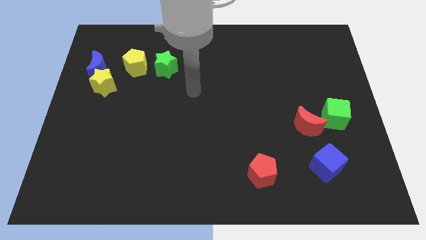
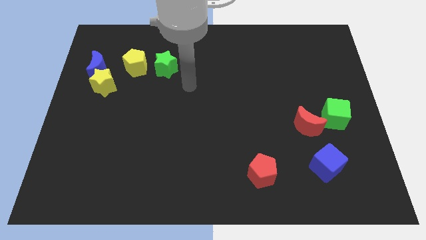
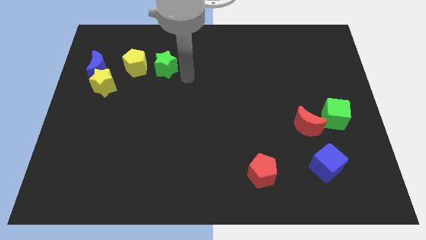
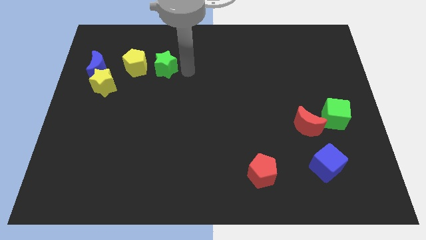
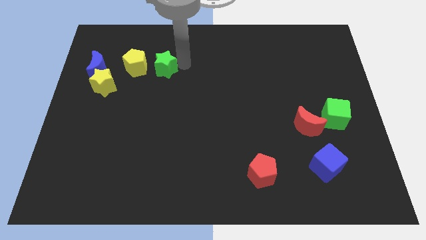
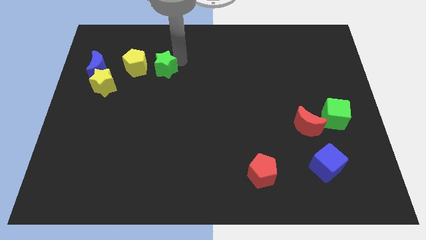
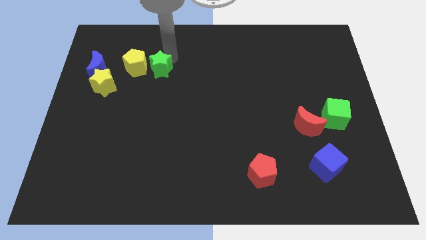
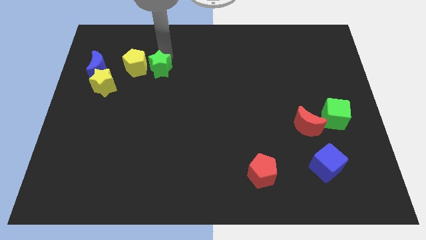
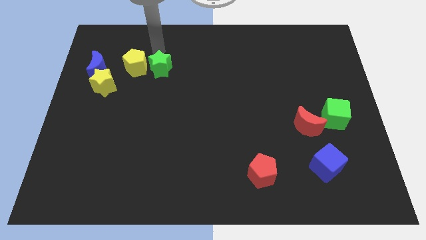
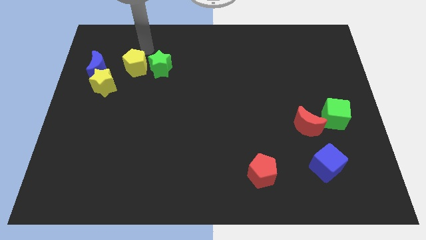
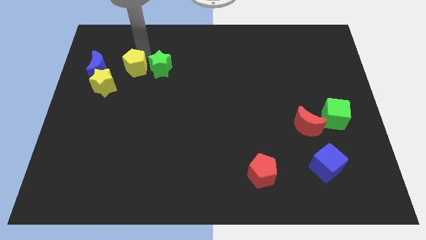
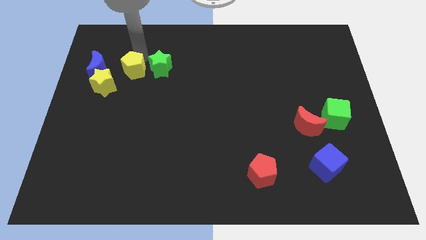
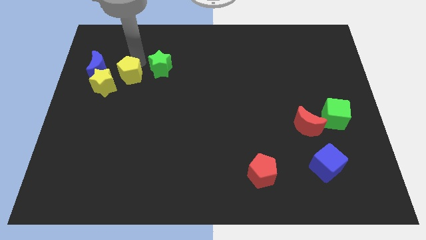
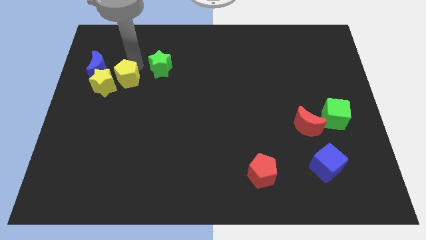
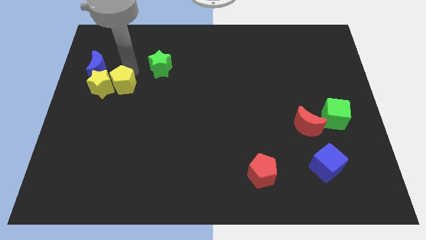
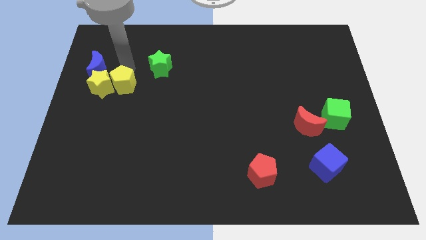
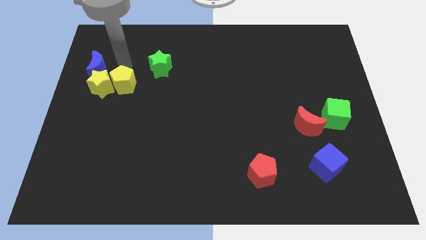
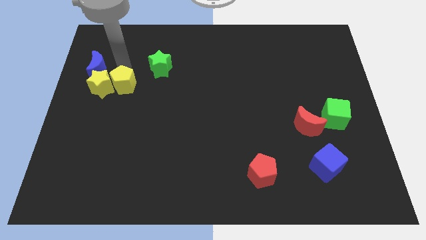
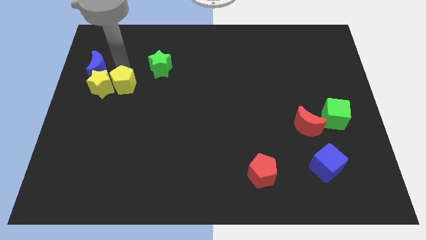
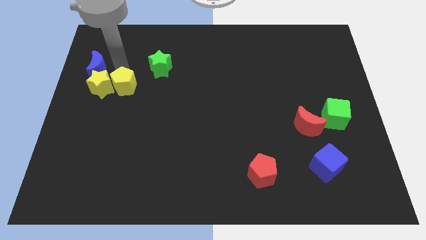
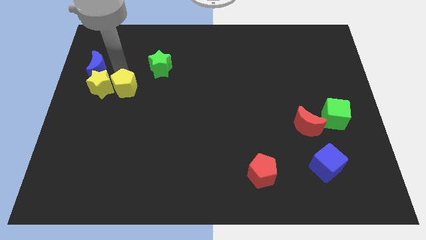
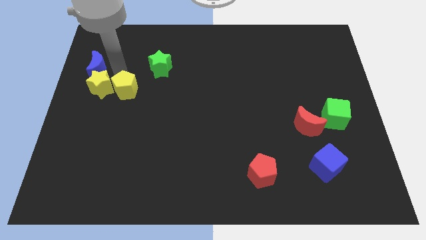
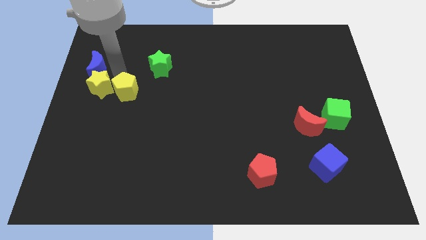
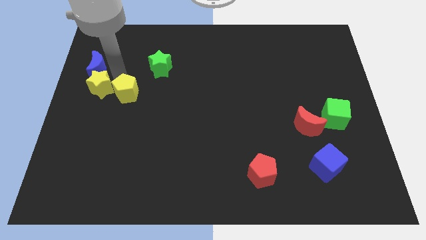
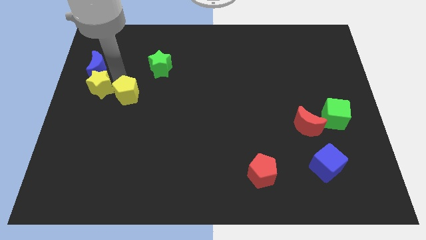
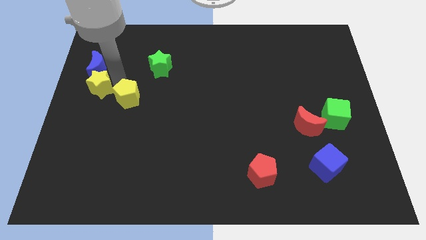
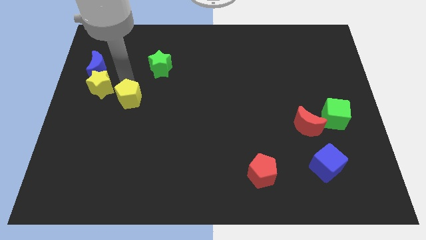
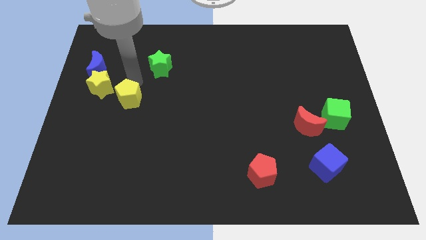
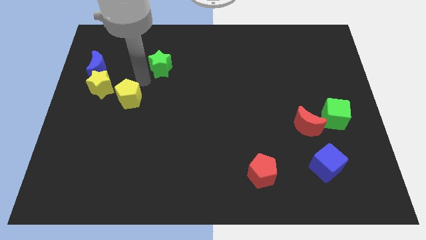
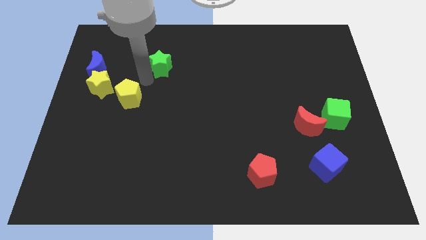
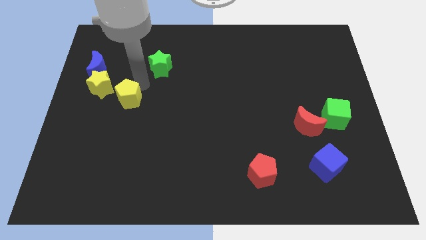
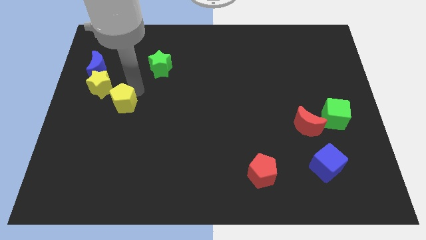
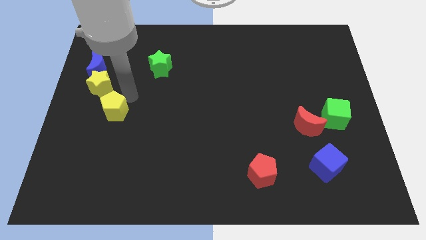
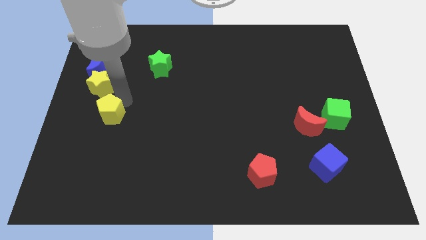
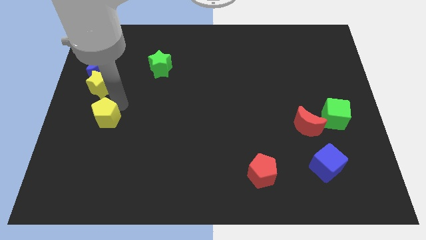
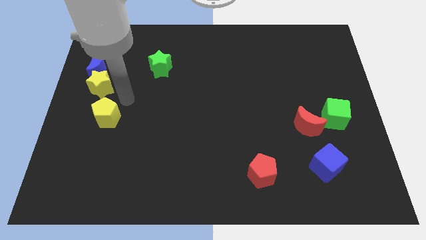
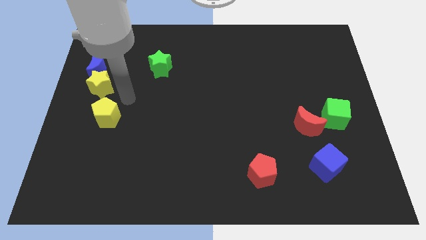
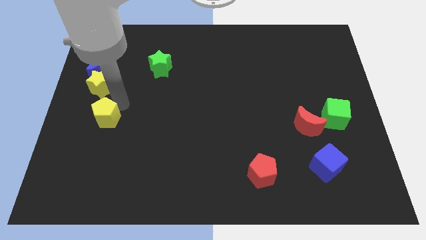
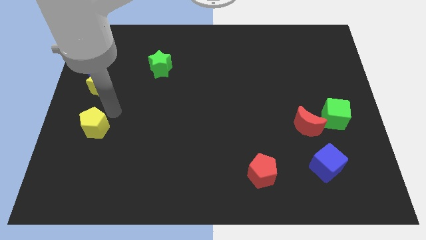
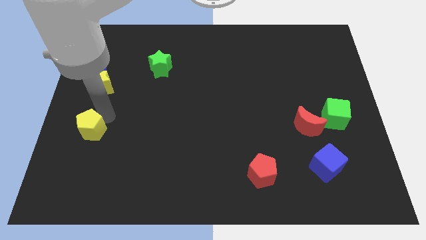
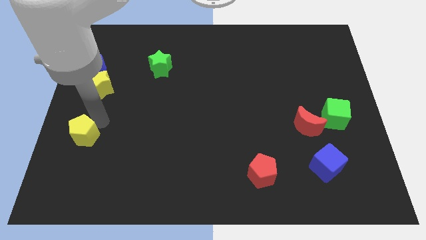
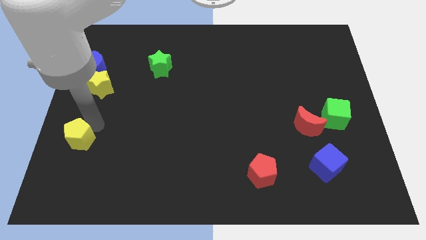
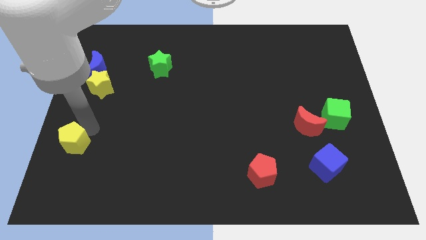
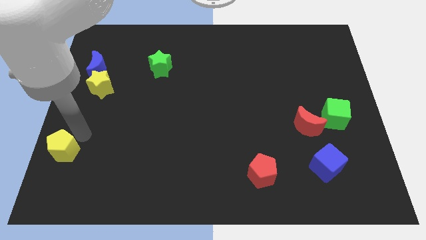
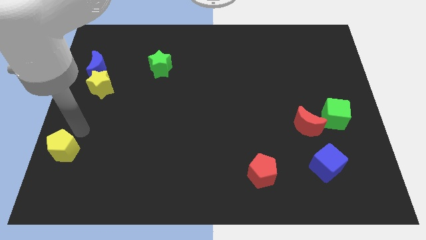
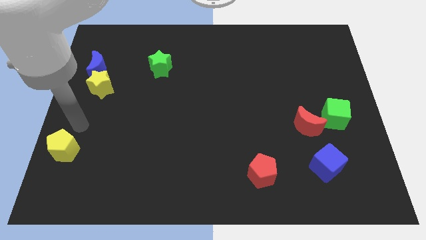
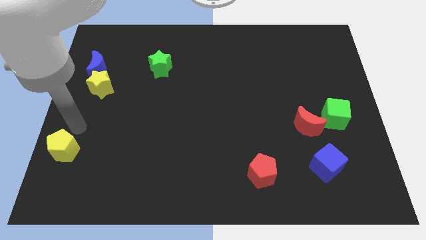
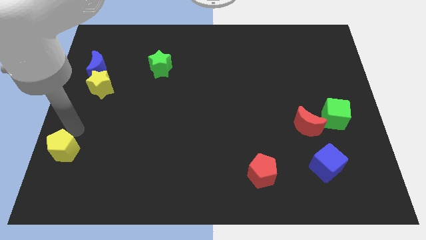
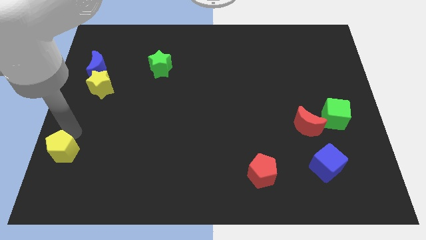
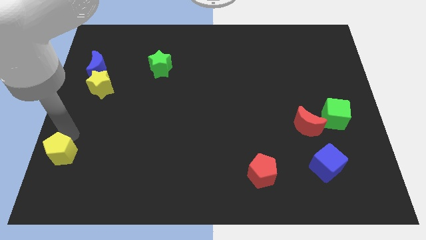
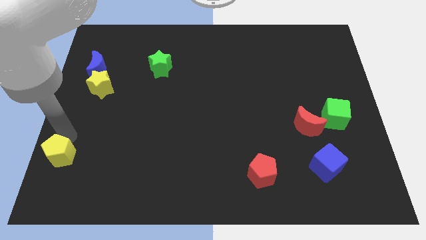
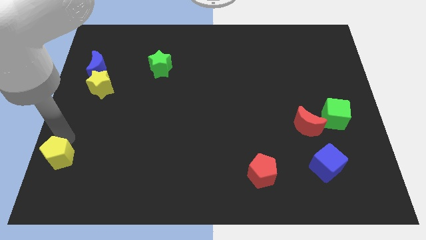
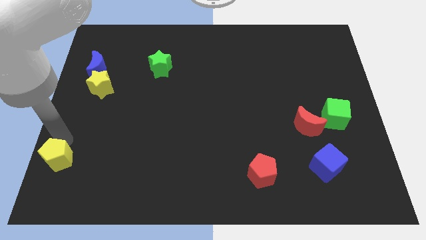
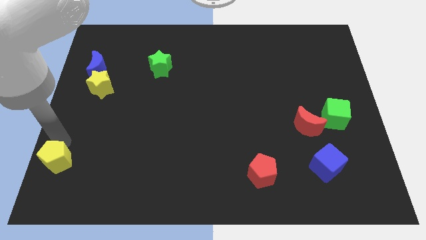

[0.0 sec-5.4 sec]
move the yellow pentagon to the bottom left

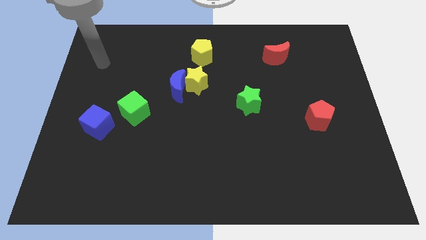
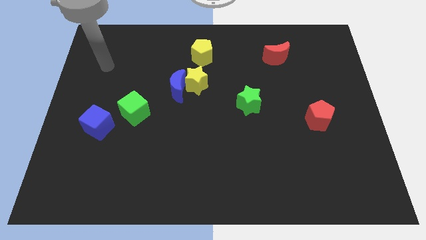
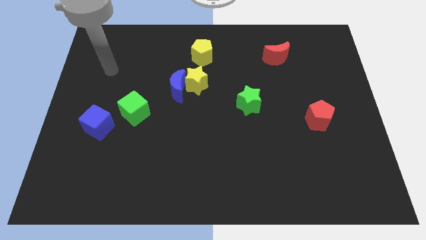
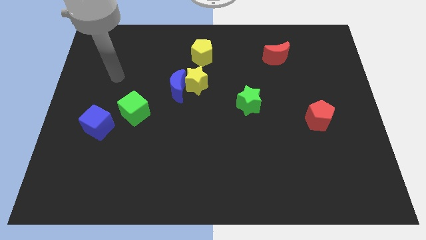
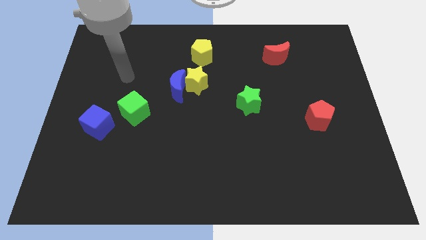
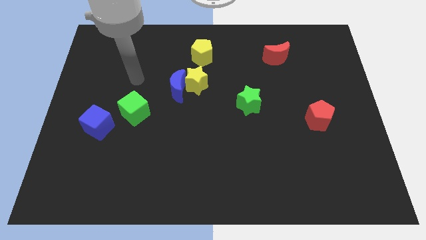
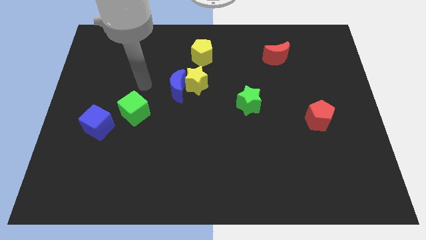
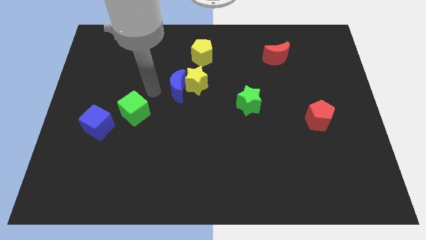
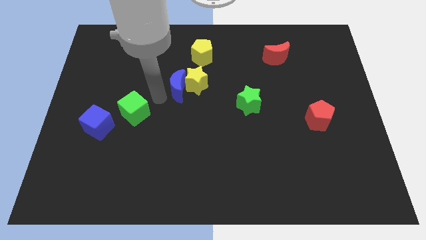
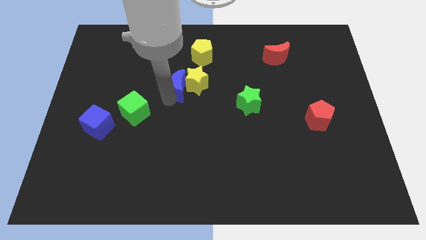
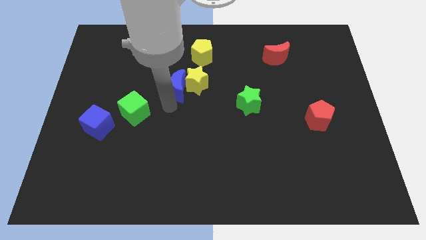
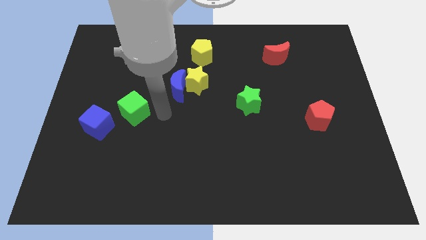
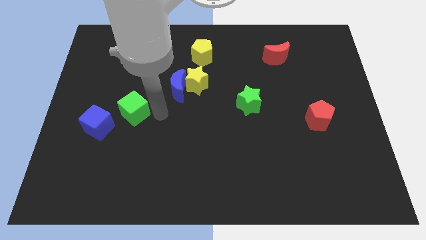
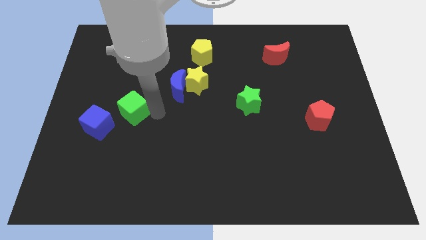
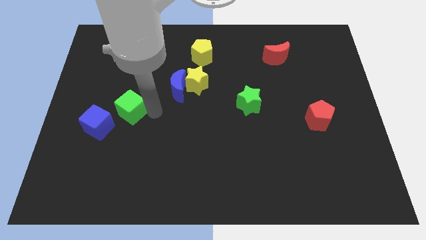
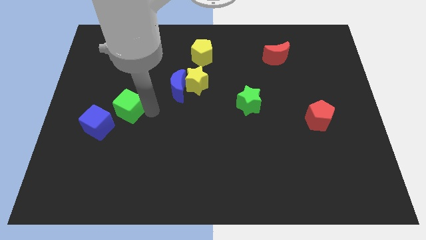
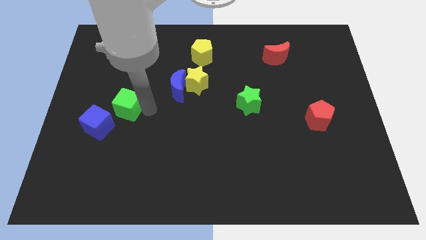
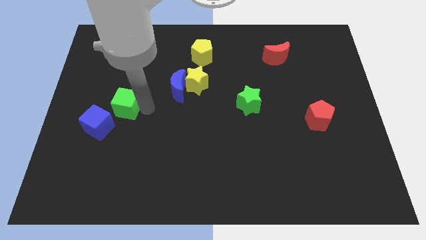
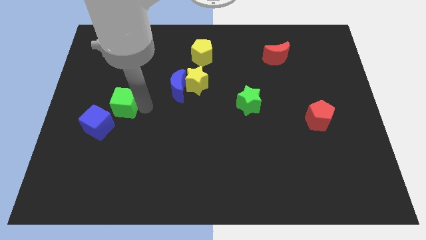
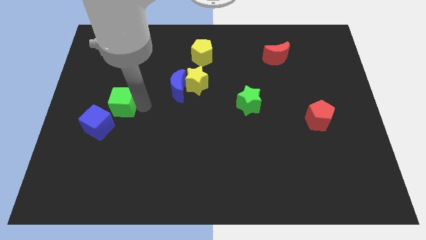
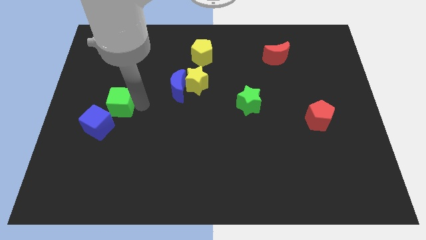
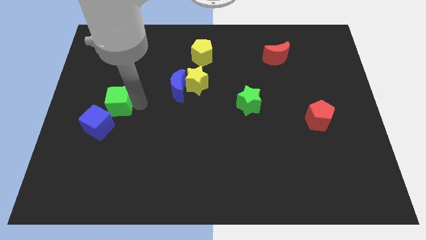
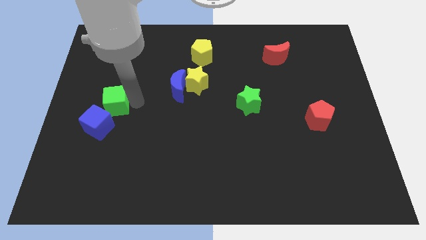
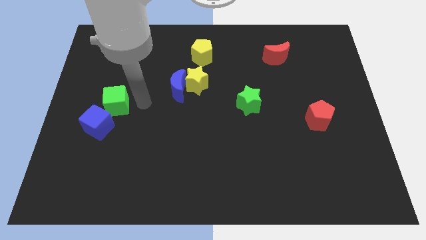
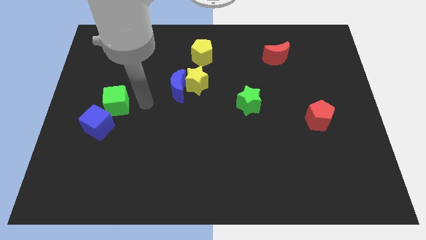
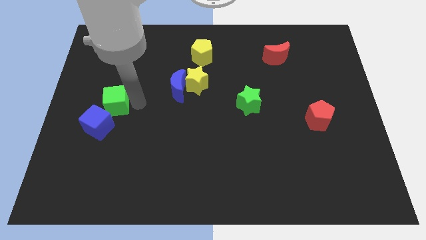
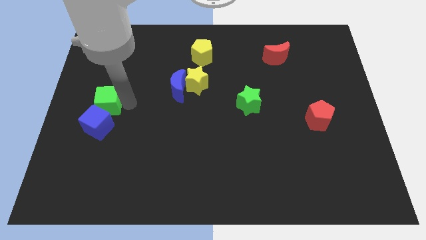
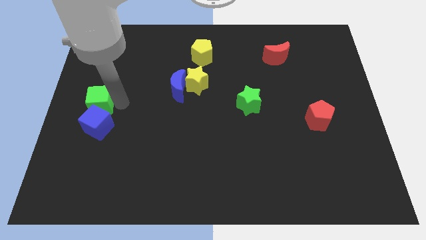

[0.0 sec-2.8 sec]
slide the green cube to the left side
